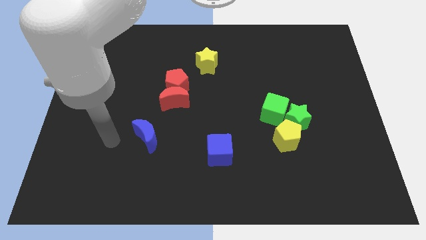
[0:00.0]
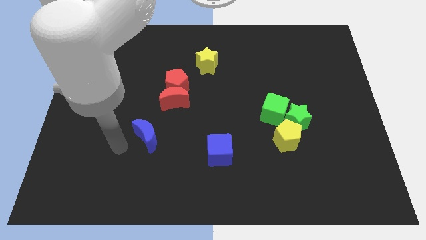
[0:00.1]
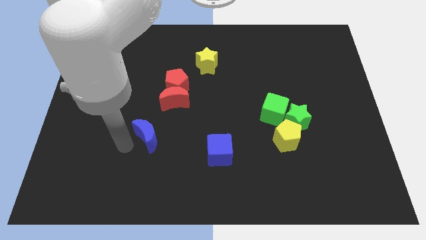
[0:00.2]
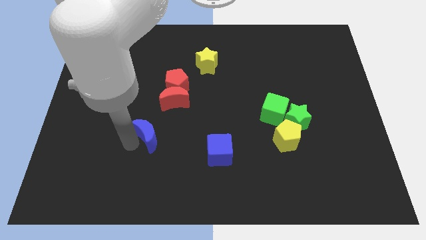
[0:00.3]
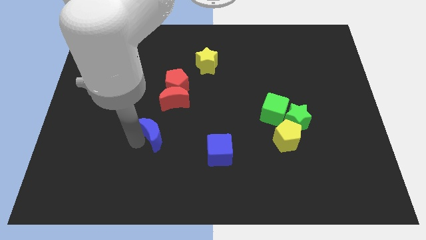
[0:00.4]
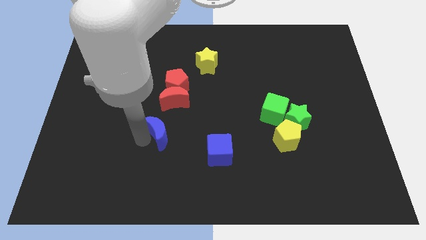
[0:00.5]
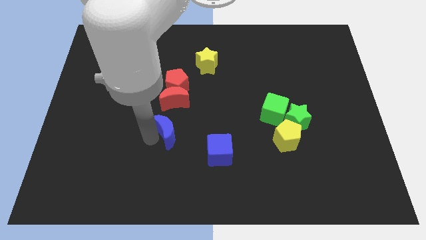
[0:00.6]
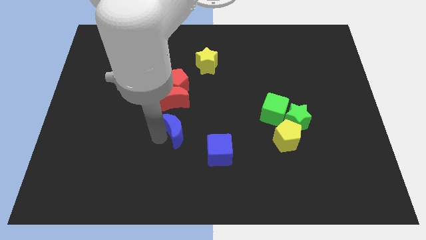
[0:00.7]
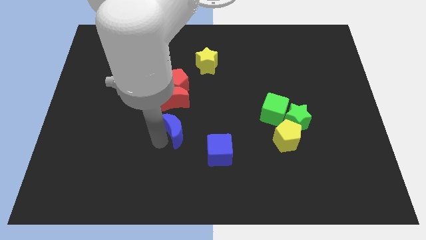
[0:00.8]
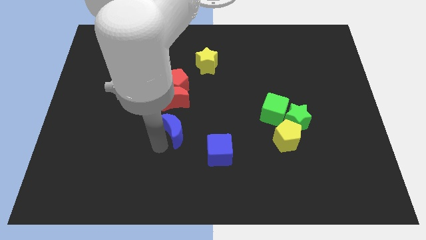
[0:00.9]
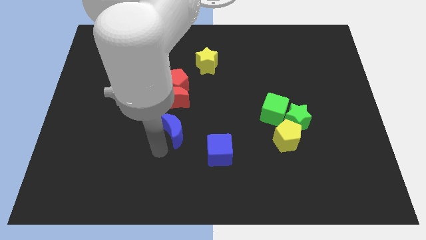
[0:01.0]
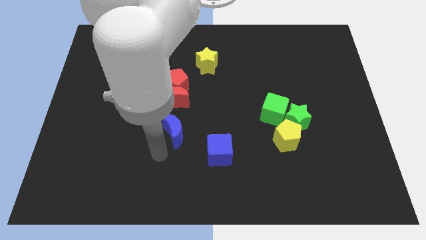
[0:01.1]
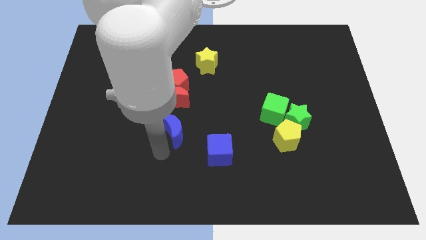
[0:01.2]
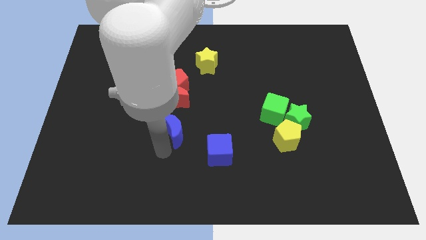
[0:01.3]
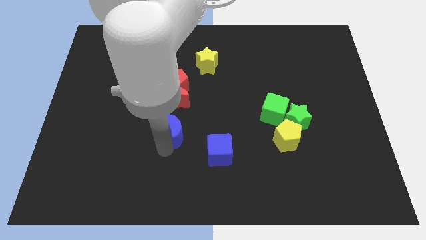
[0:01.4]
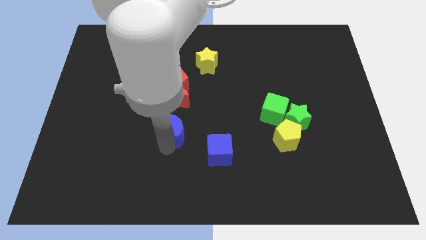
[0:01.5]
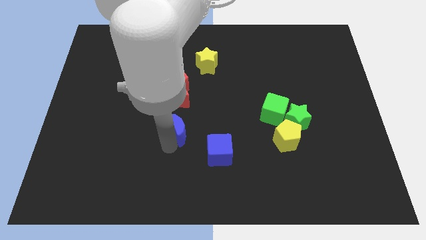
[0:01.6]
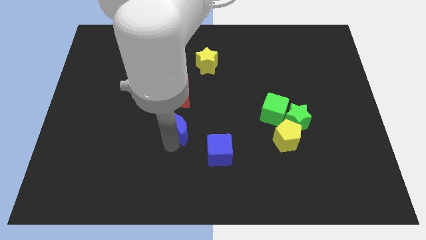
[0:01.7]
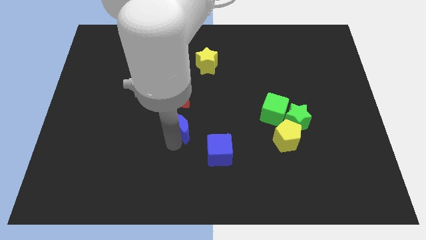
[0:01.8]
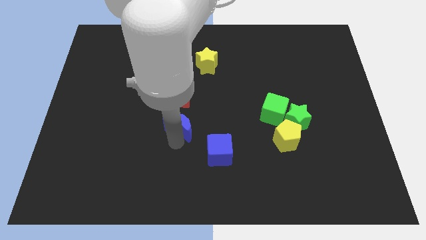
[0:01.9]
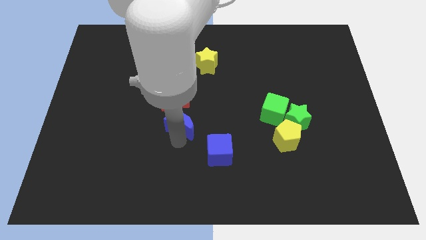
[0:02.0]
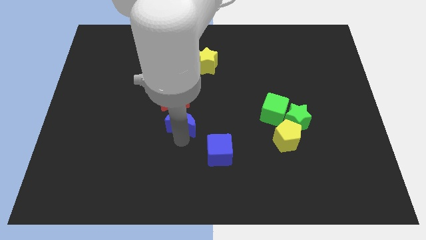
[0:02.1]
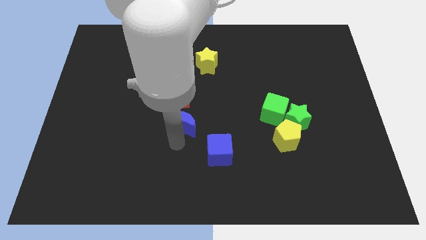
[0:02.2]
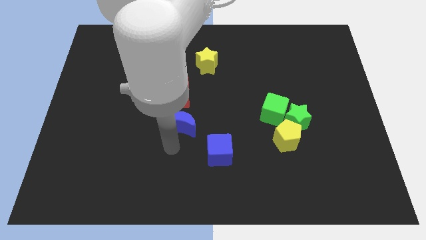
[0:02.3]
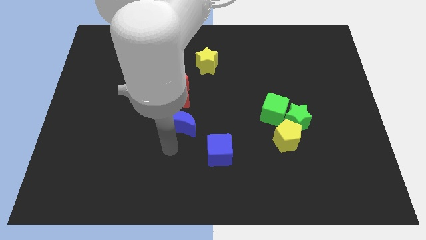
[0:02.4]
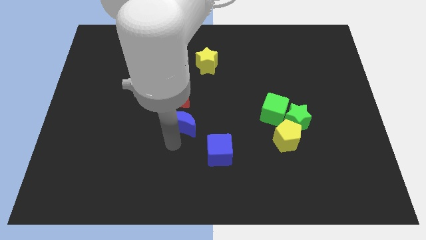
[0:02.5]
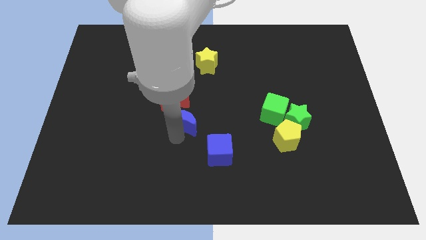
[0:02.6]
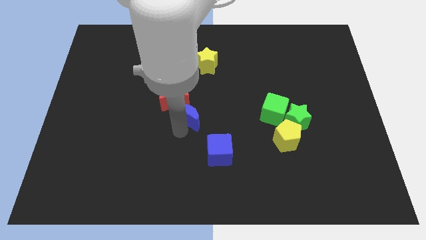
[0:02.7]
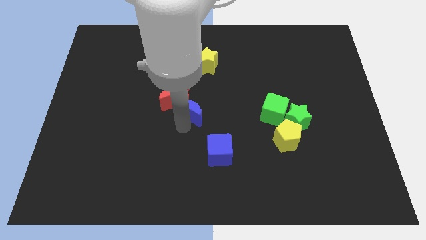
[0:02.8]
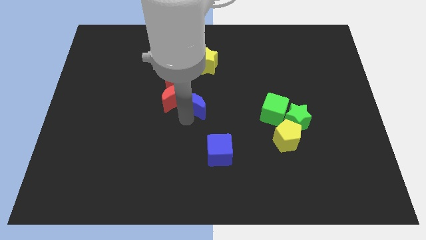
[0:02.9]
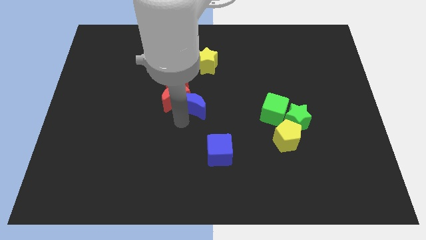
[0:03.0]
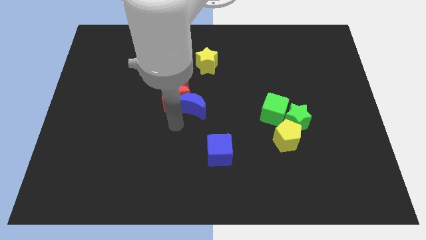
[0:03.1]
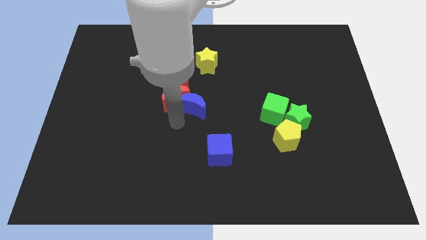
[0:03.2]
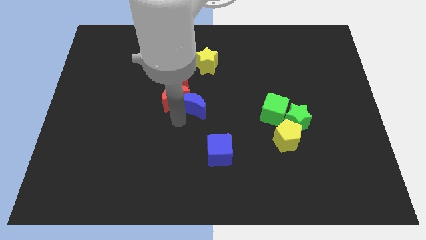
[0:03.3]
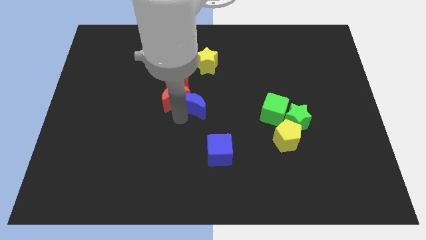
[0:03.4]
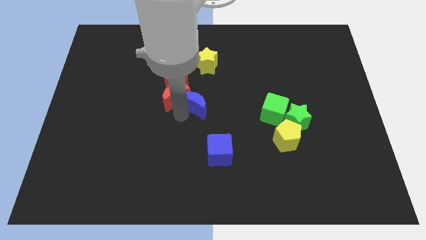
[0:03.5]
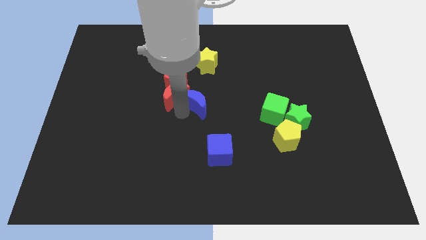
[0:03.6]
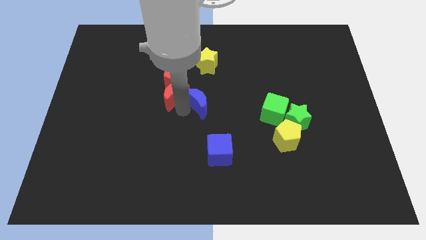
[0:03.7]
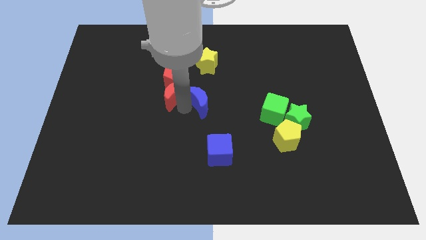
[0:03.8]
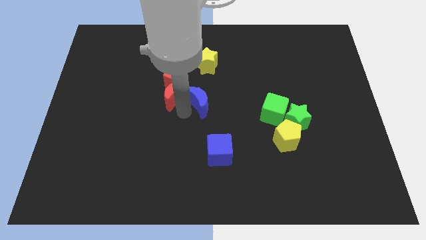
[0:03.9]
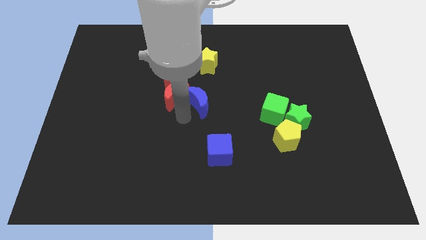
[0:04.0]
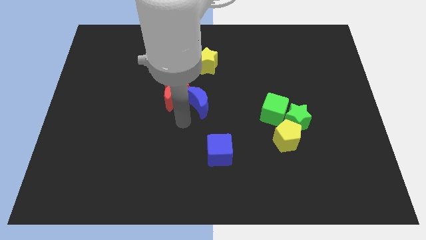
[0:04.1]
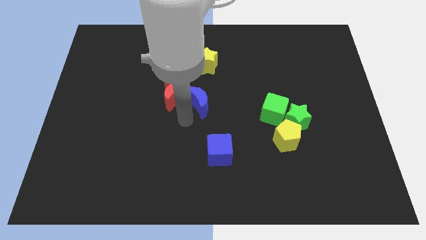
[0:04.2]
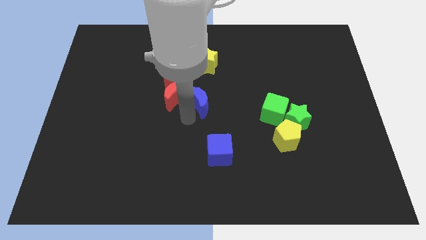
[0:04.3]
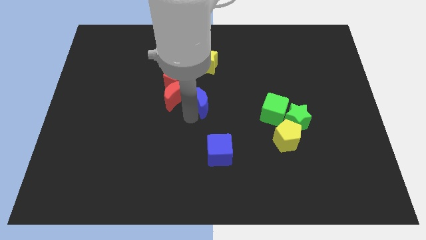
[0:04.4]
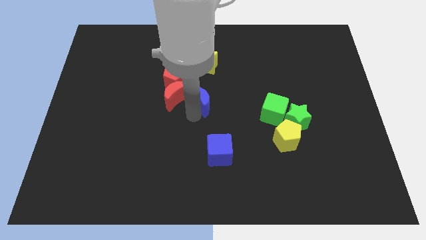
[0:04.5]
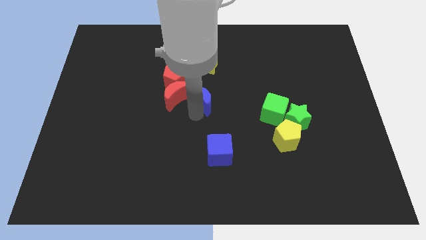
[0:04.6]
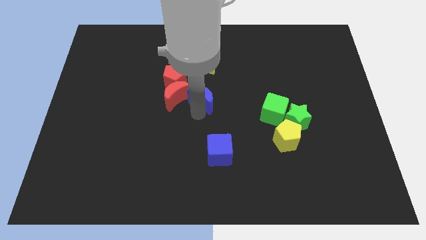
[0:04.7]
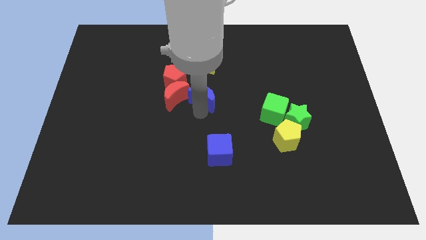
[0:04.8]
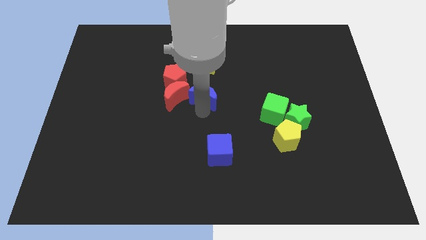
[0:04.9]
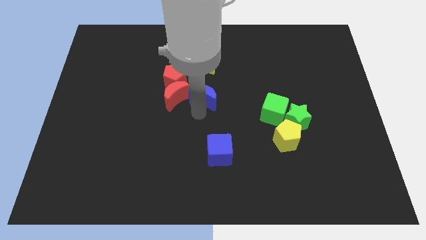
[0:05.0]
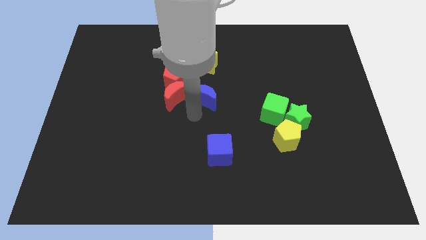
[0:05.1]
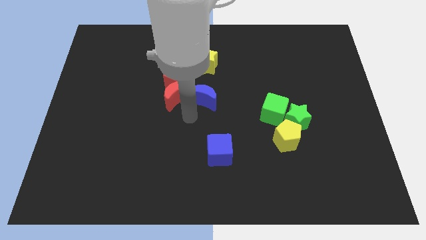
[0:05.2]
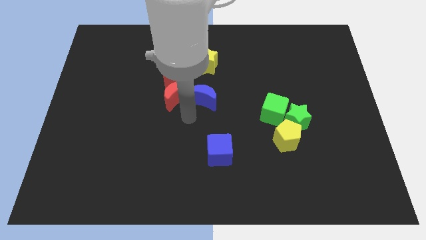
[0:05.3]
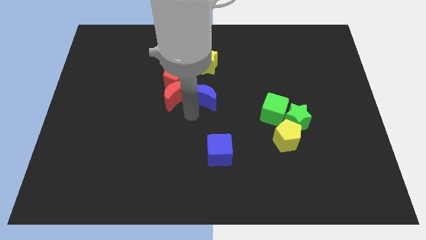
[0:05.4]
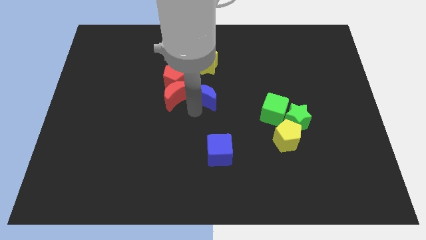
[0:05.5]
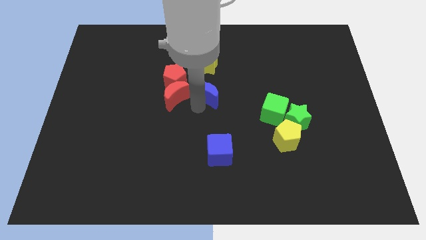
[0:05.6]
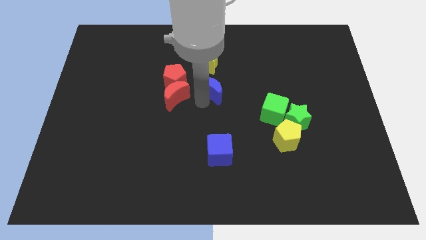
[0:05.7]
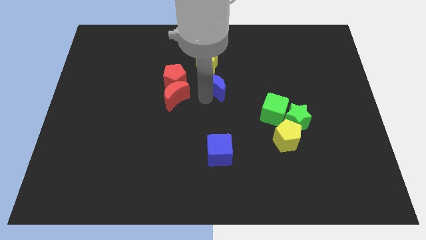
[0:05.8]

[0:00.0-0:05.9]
push the blue moon diagonally up and right

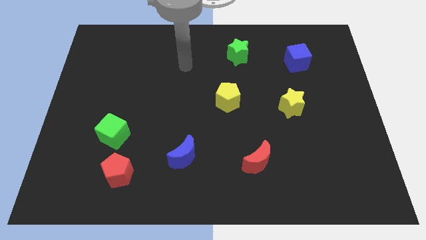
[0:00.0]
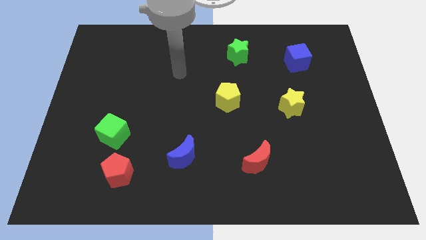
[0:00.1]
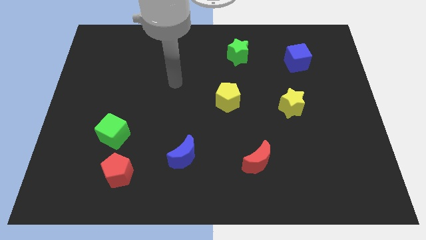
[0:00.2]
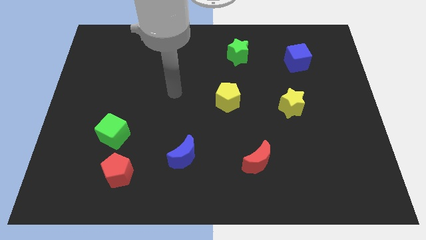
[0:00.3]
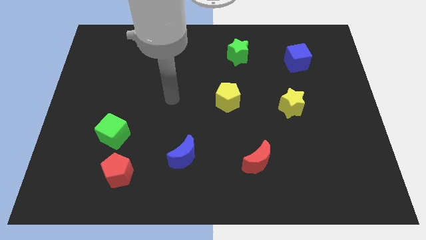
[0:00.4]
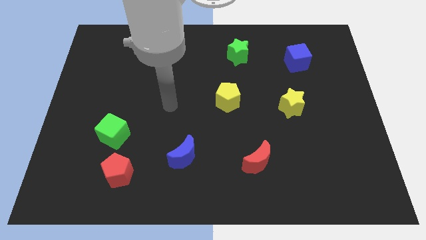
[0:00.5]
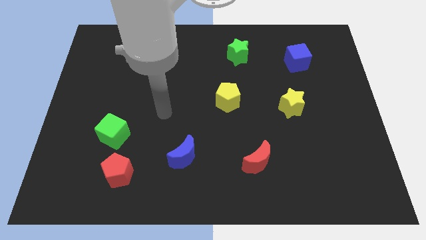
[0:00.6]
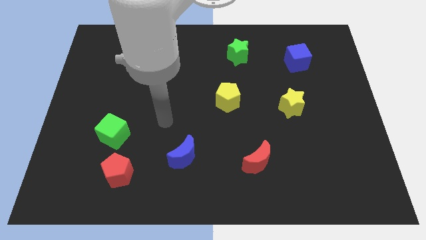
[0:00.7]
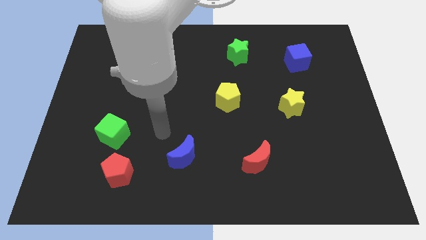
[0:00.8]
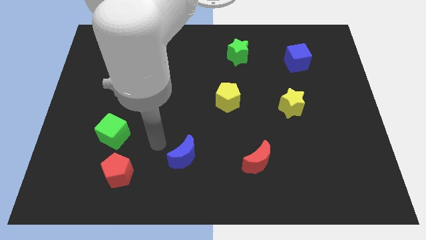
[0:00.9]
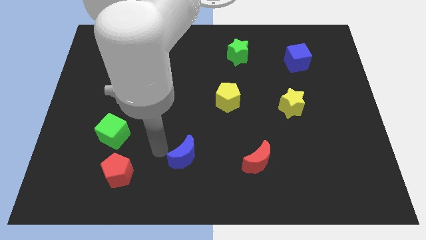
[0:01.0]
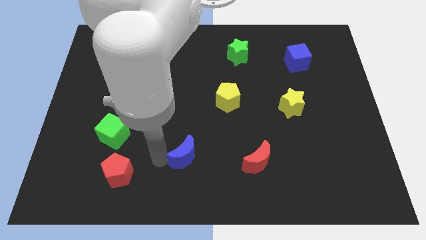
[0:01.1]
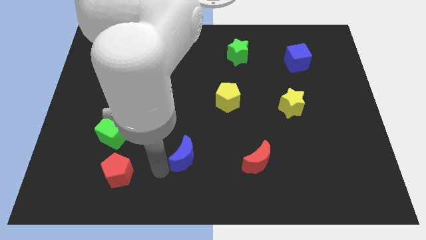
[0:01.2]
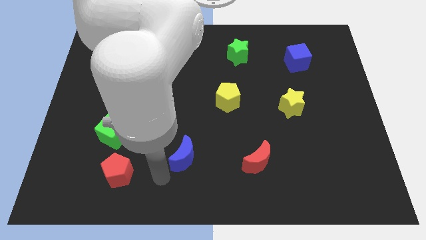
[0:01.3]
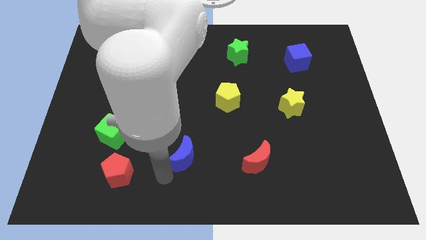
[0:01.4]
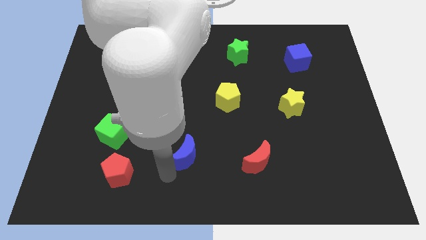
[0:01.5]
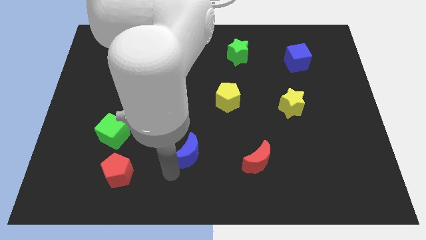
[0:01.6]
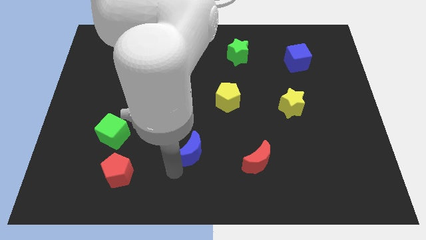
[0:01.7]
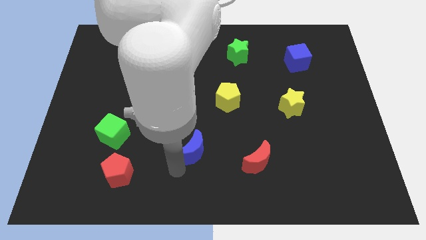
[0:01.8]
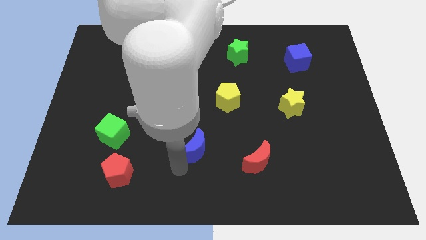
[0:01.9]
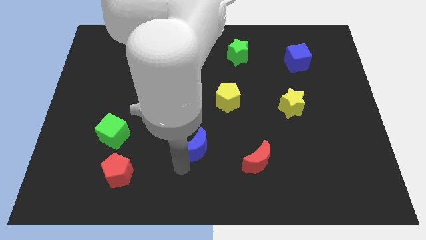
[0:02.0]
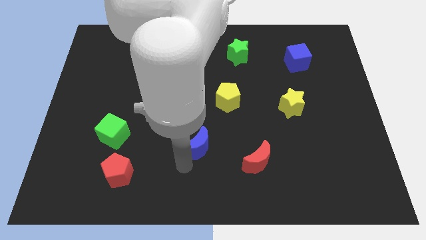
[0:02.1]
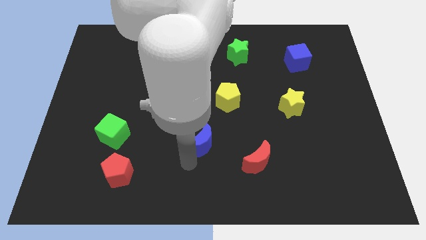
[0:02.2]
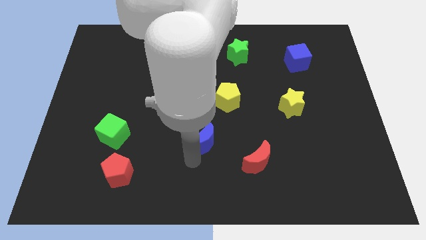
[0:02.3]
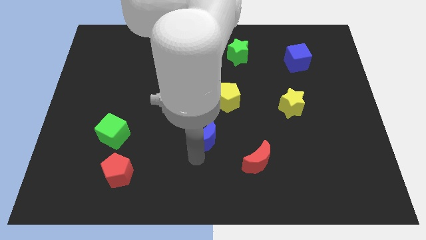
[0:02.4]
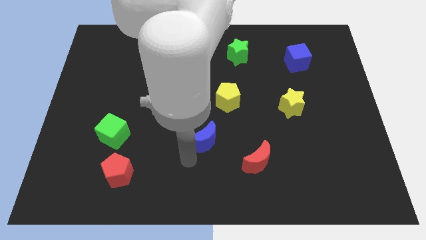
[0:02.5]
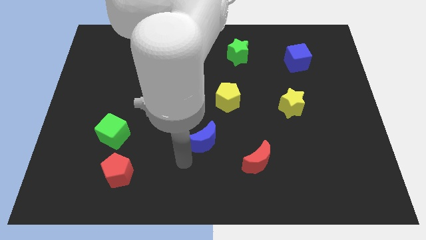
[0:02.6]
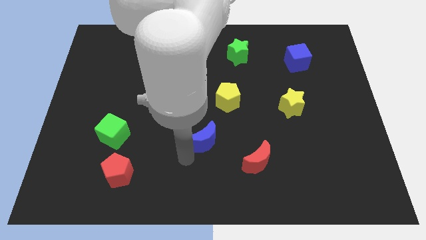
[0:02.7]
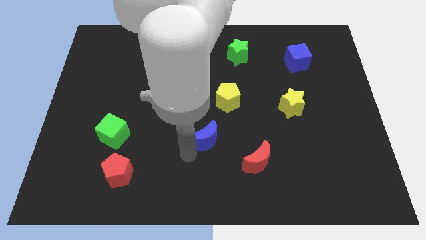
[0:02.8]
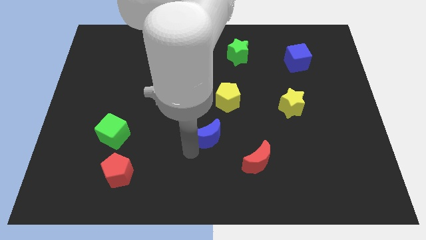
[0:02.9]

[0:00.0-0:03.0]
push the blue moon upwards and then right a little
